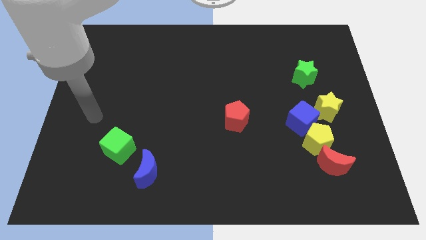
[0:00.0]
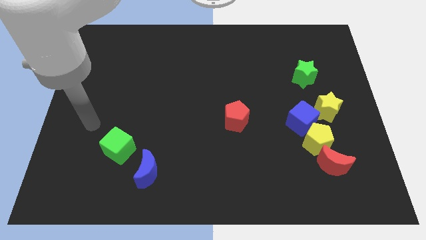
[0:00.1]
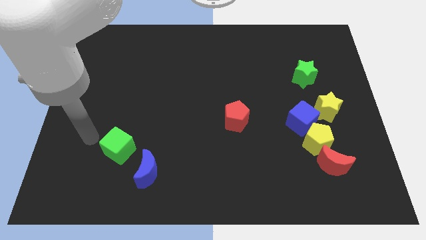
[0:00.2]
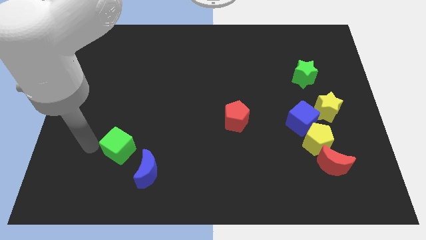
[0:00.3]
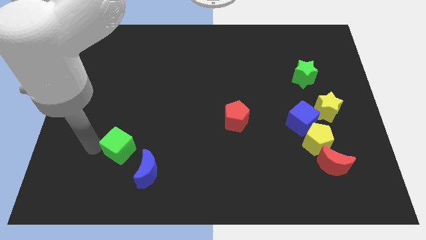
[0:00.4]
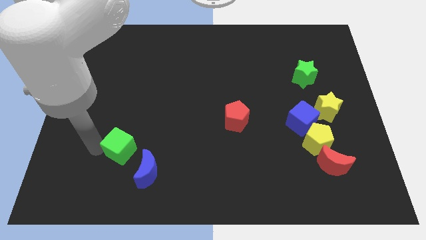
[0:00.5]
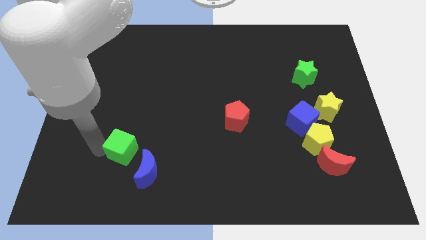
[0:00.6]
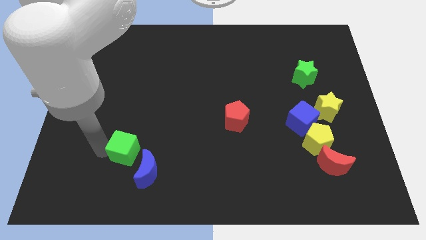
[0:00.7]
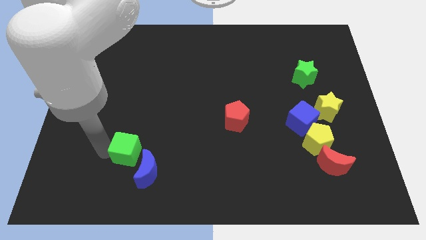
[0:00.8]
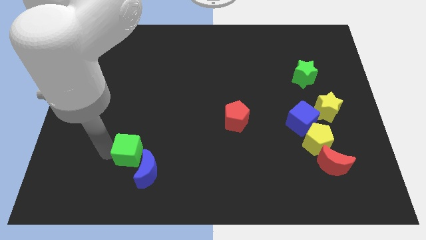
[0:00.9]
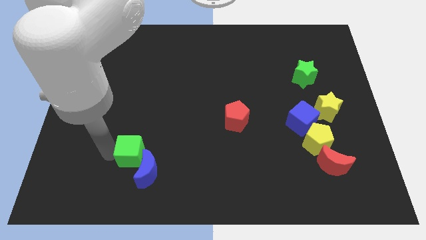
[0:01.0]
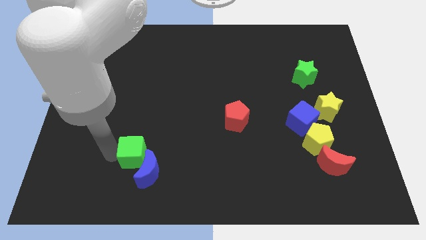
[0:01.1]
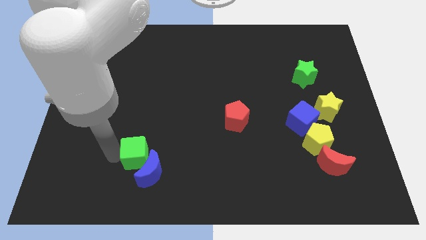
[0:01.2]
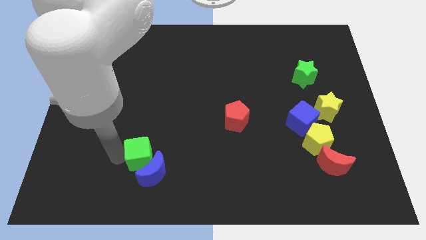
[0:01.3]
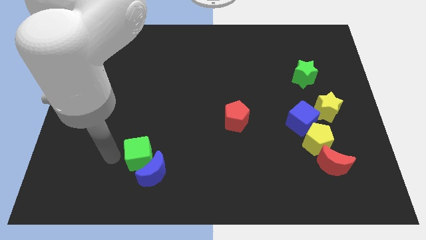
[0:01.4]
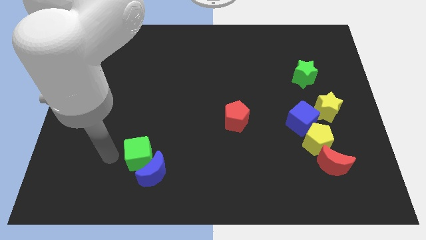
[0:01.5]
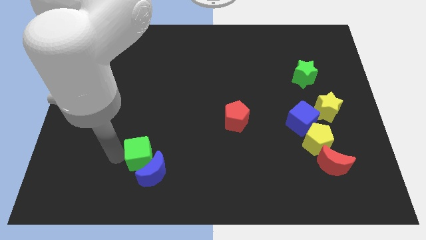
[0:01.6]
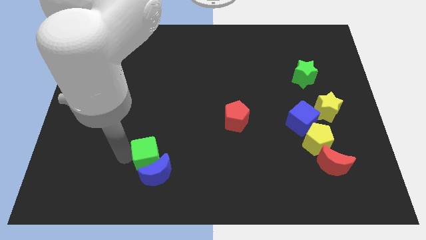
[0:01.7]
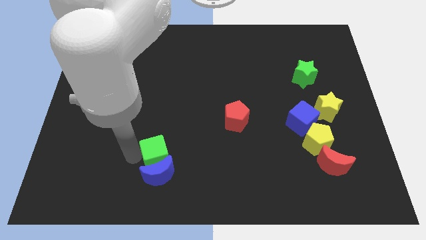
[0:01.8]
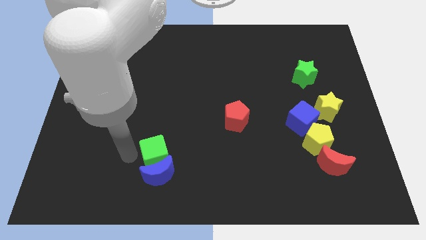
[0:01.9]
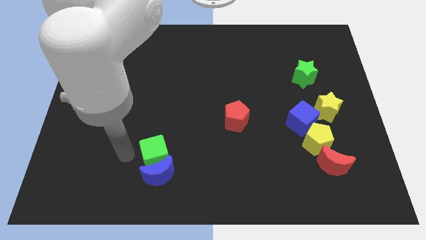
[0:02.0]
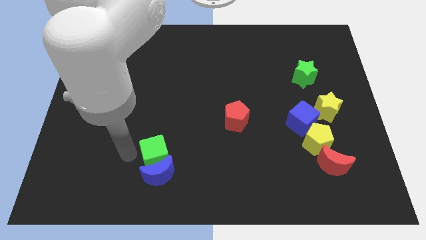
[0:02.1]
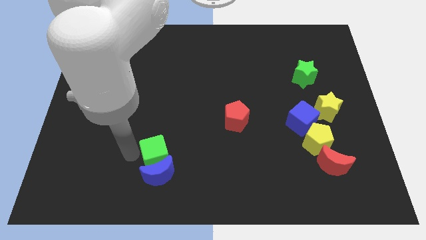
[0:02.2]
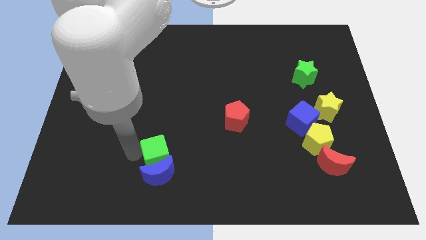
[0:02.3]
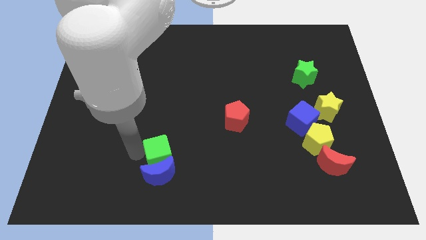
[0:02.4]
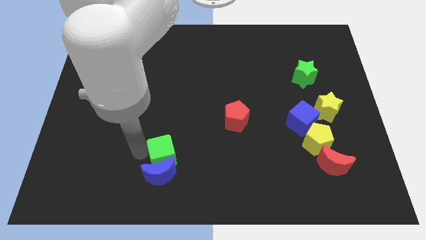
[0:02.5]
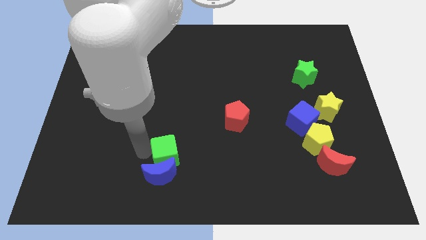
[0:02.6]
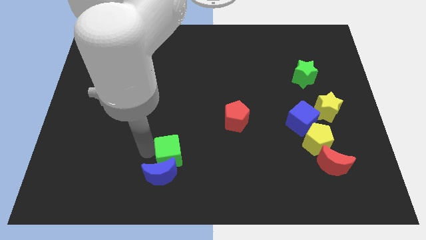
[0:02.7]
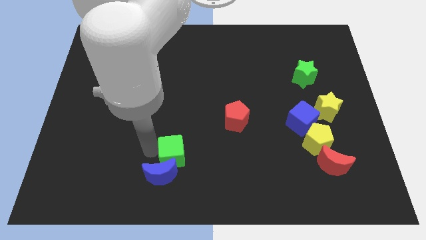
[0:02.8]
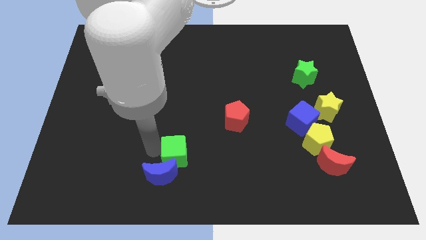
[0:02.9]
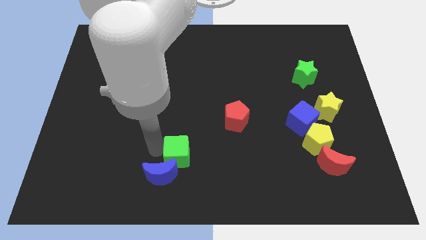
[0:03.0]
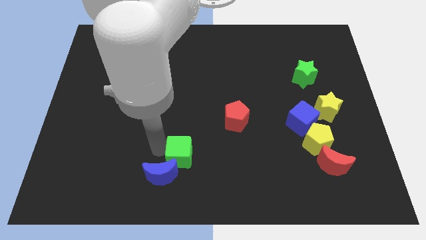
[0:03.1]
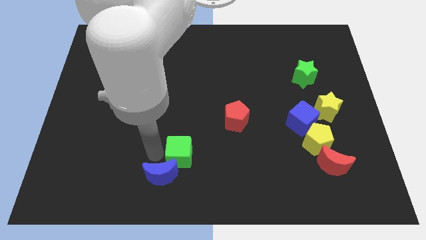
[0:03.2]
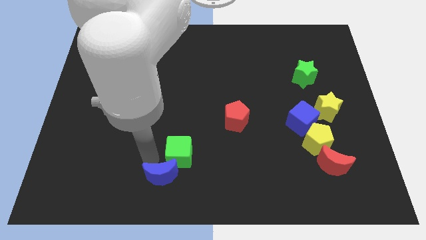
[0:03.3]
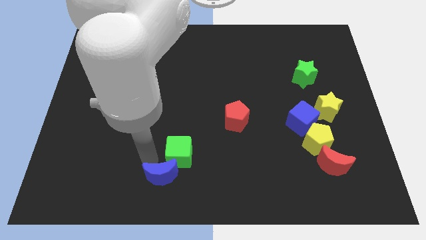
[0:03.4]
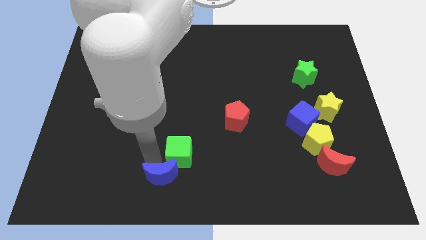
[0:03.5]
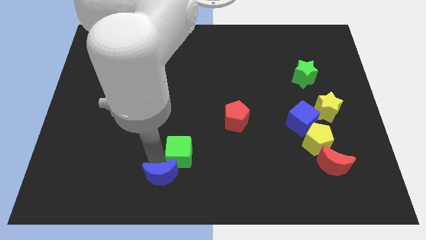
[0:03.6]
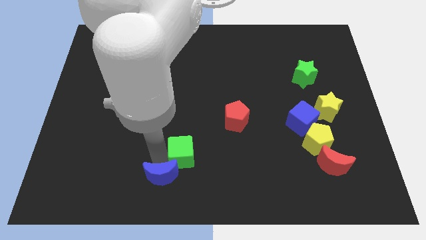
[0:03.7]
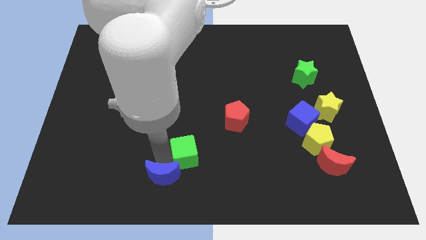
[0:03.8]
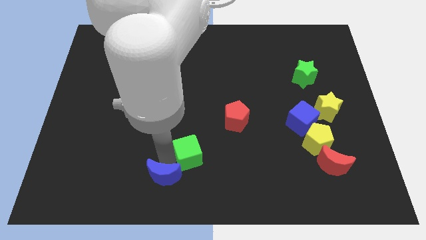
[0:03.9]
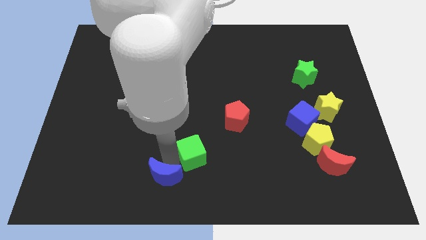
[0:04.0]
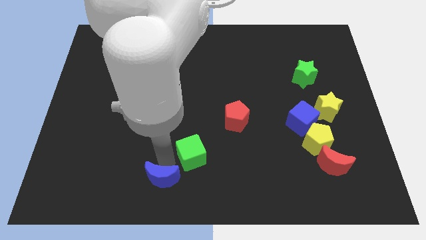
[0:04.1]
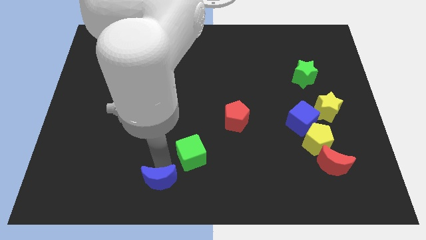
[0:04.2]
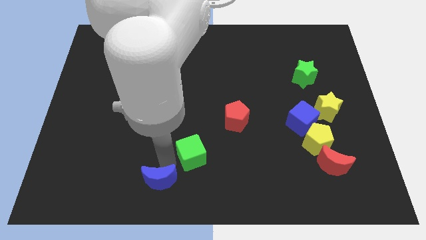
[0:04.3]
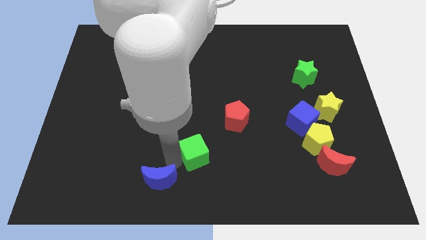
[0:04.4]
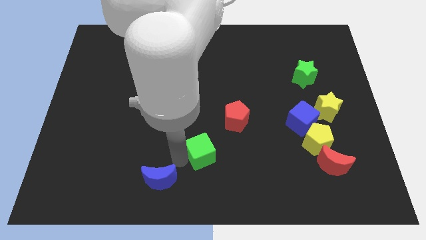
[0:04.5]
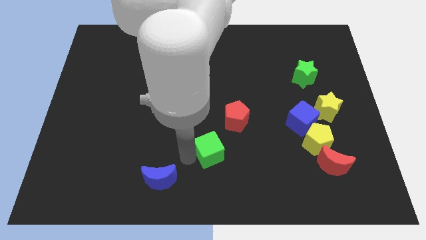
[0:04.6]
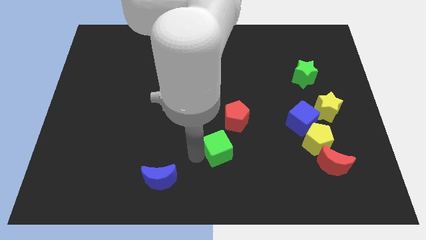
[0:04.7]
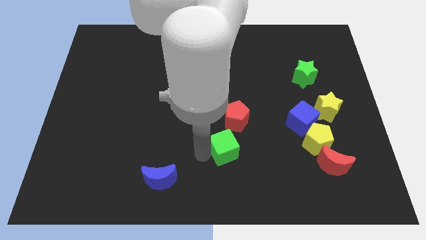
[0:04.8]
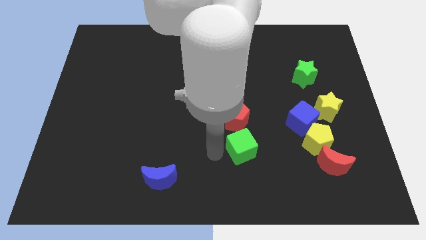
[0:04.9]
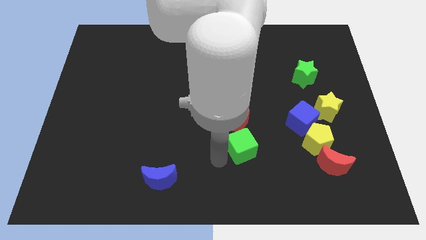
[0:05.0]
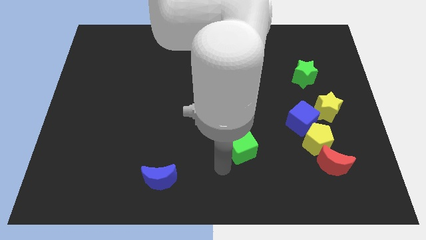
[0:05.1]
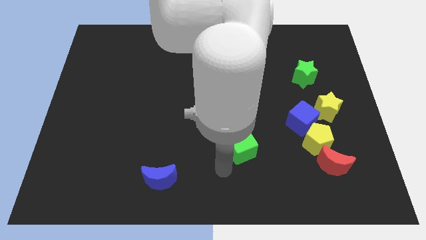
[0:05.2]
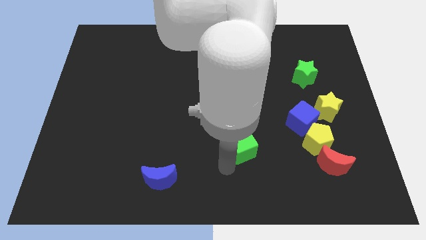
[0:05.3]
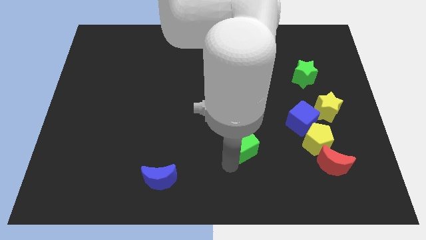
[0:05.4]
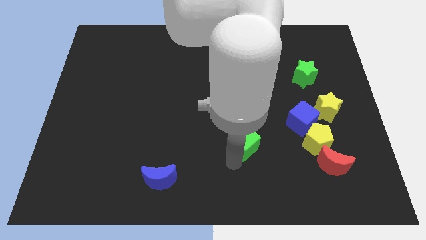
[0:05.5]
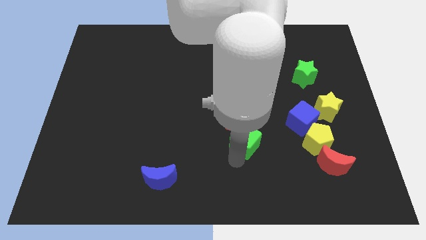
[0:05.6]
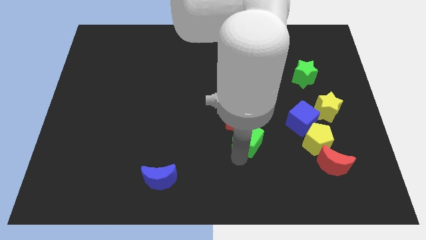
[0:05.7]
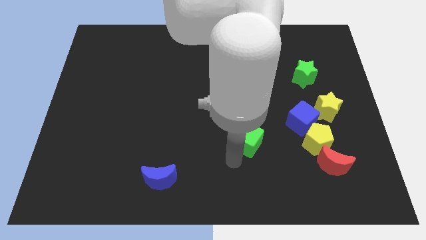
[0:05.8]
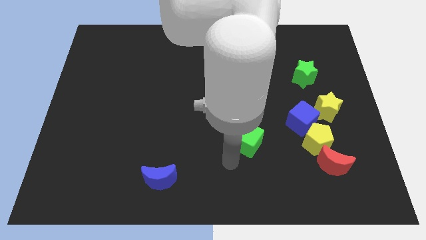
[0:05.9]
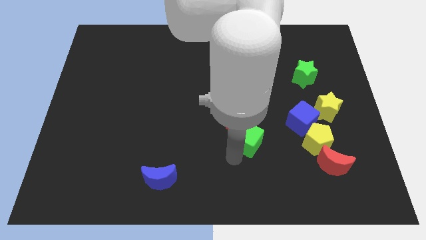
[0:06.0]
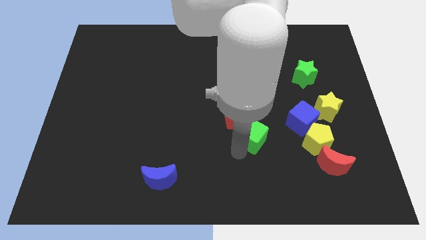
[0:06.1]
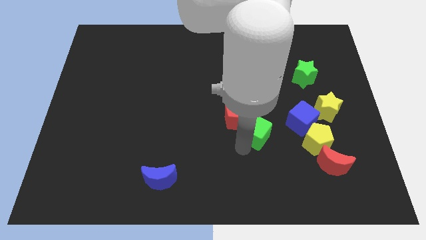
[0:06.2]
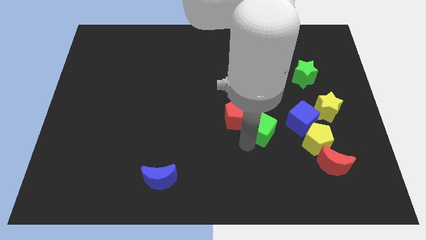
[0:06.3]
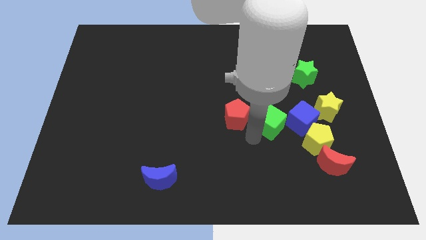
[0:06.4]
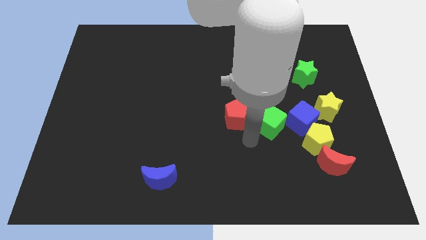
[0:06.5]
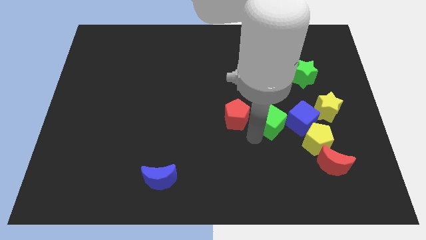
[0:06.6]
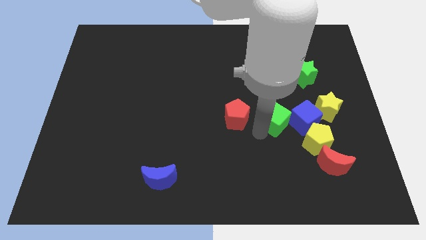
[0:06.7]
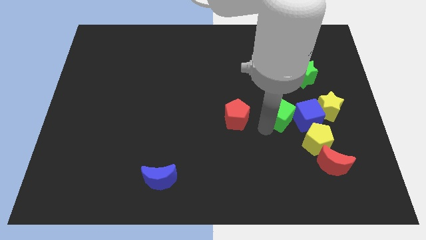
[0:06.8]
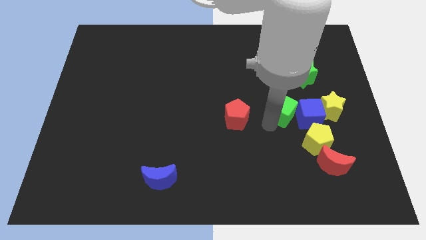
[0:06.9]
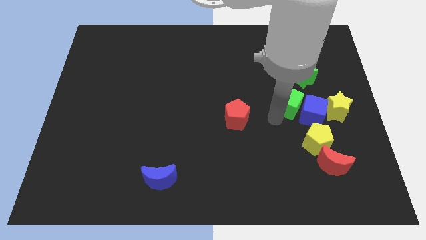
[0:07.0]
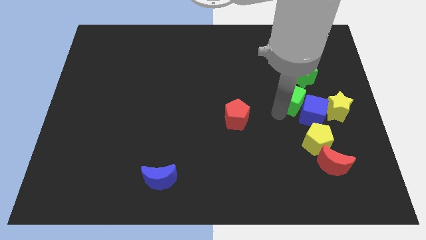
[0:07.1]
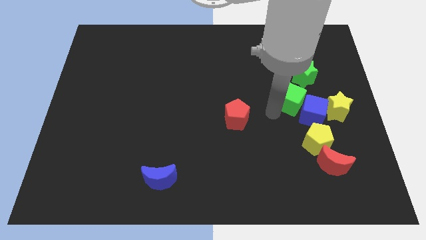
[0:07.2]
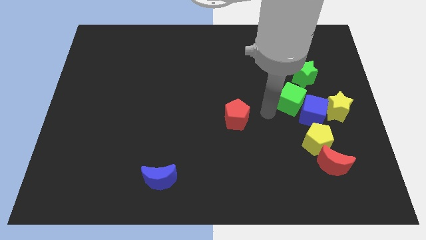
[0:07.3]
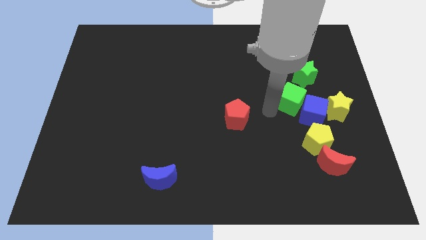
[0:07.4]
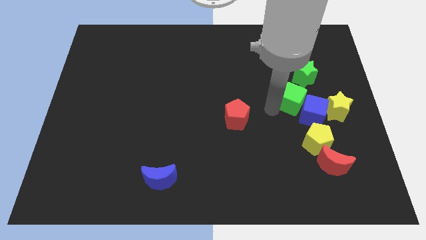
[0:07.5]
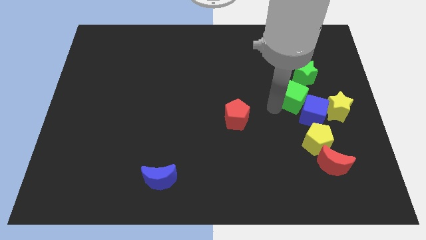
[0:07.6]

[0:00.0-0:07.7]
slide the green cube to the top left side of the yellow star
